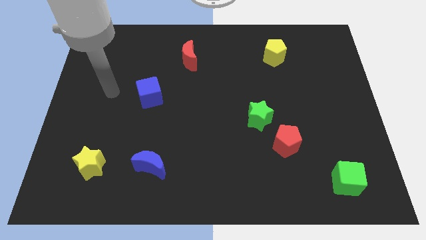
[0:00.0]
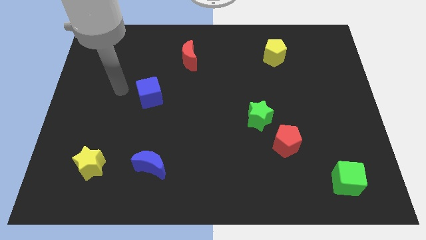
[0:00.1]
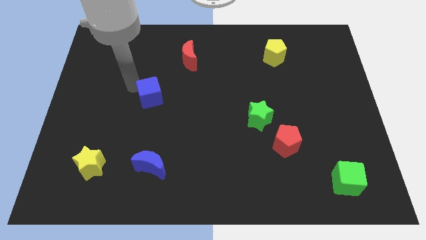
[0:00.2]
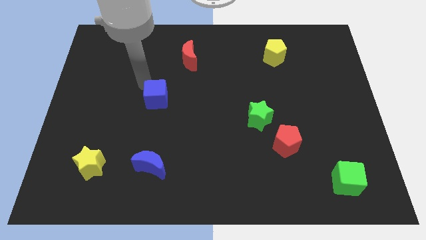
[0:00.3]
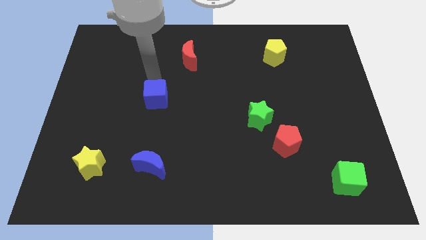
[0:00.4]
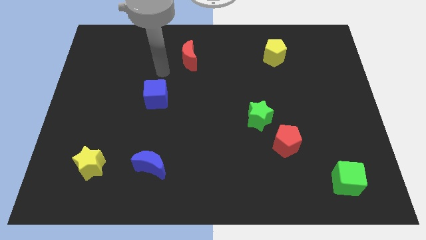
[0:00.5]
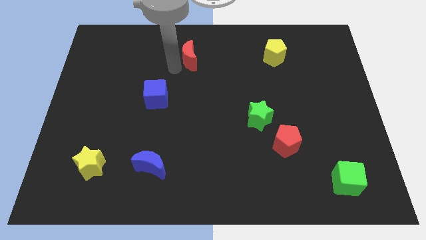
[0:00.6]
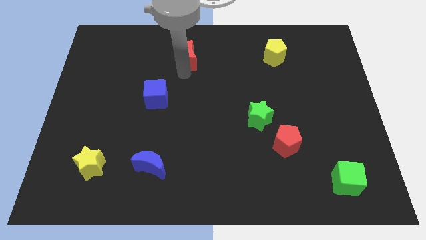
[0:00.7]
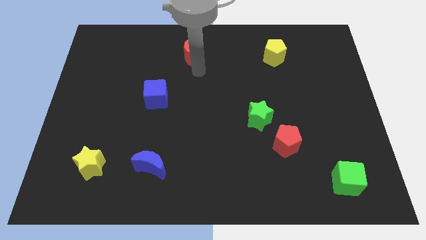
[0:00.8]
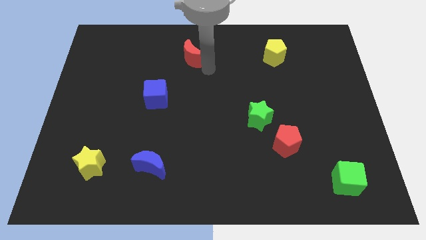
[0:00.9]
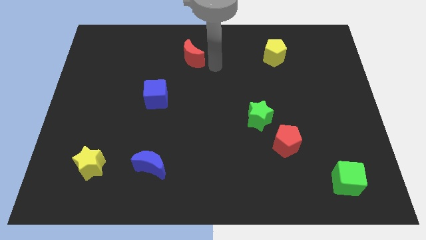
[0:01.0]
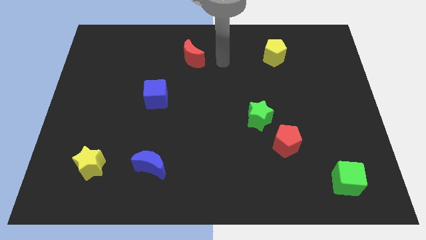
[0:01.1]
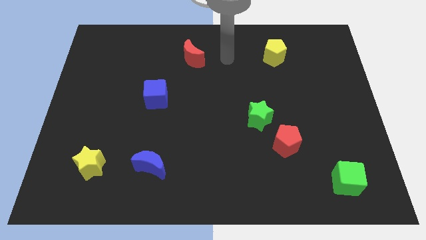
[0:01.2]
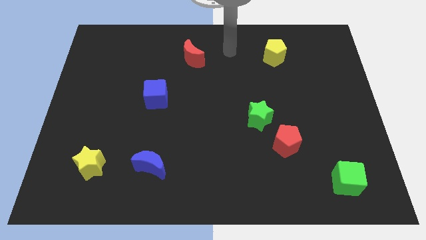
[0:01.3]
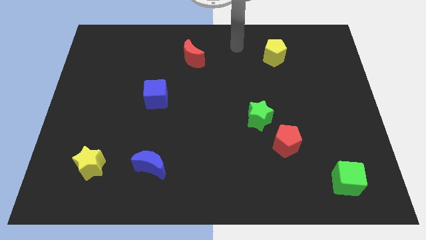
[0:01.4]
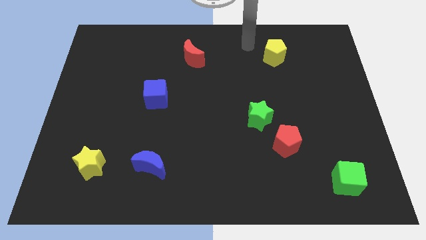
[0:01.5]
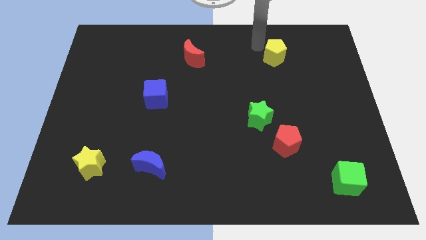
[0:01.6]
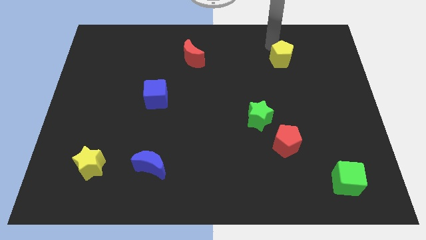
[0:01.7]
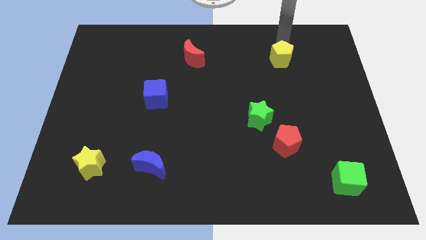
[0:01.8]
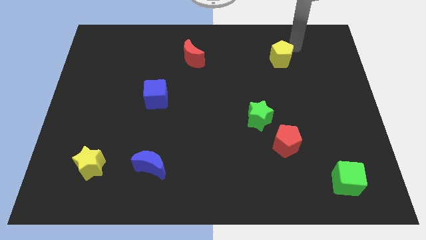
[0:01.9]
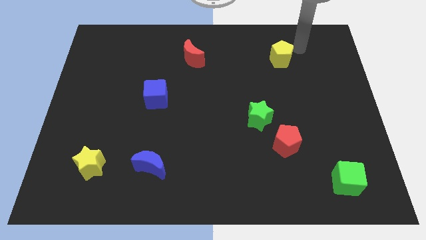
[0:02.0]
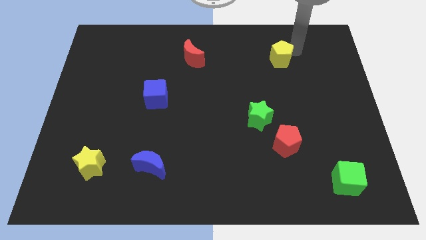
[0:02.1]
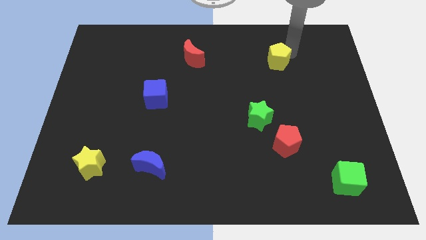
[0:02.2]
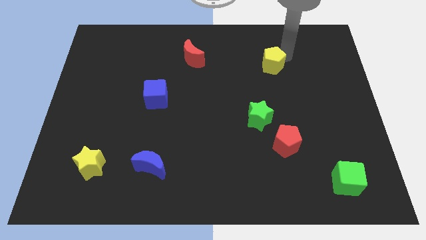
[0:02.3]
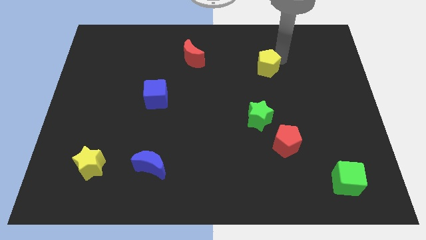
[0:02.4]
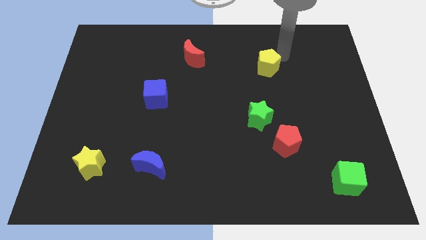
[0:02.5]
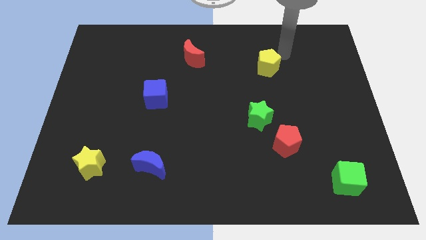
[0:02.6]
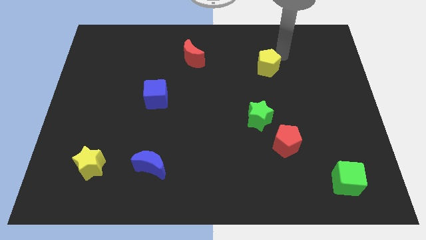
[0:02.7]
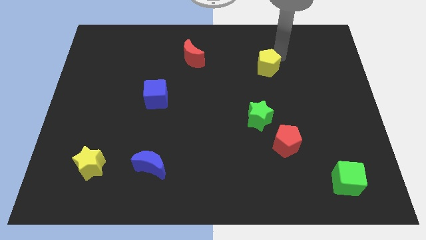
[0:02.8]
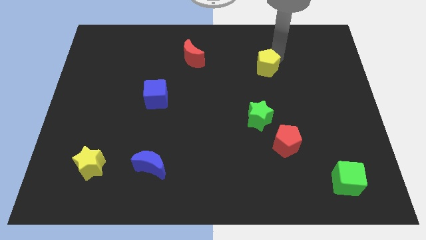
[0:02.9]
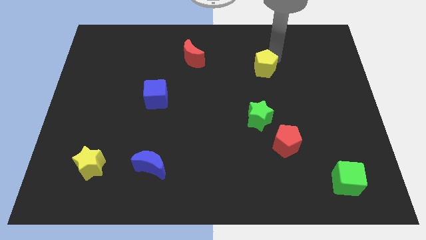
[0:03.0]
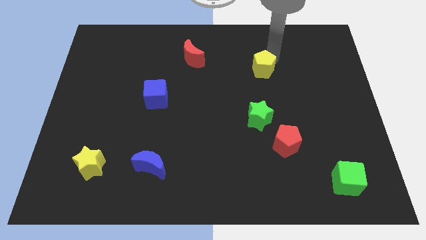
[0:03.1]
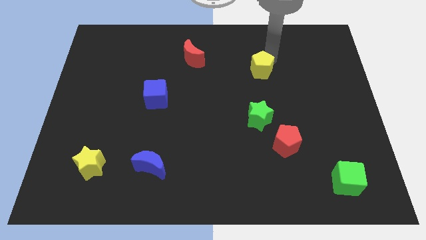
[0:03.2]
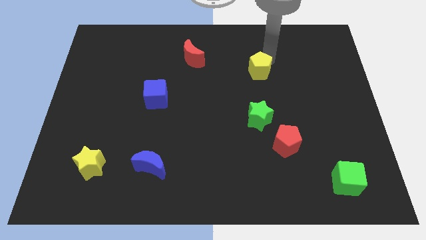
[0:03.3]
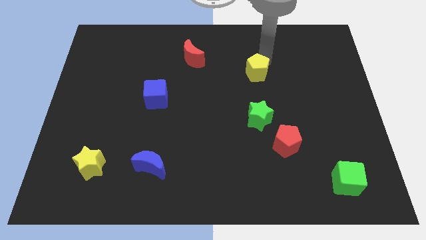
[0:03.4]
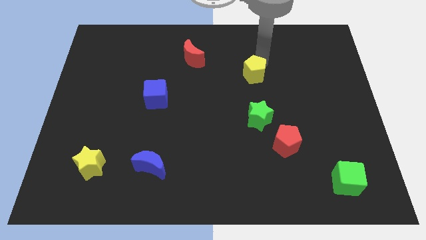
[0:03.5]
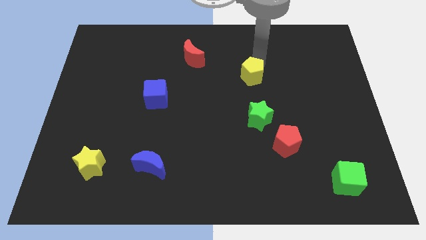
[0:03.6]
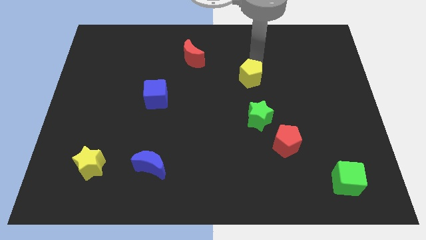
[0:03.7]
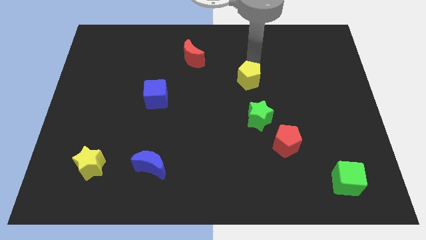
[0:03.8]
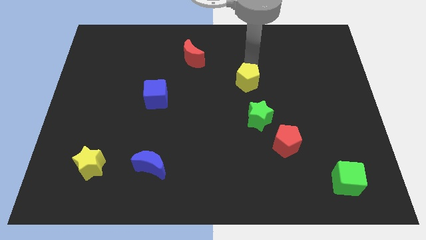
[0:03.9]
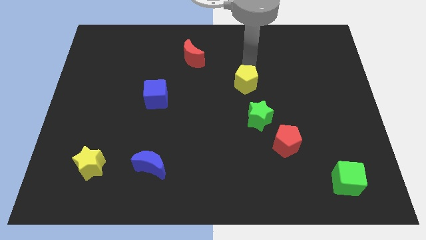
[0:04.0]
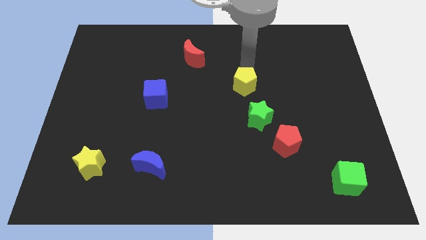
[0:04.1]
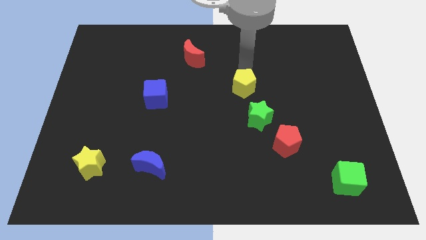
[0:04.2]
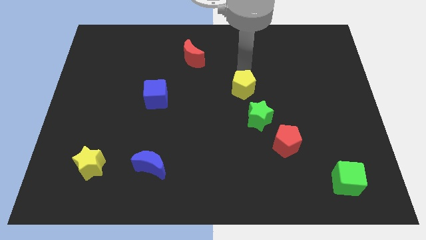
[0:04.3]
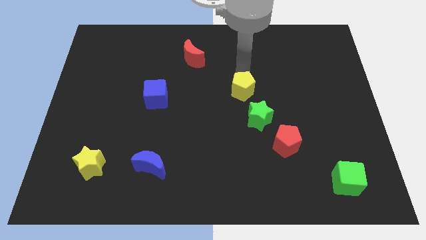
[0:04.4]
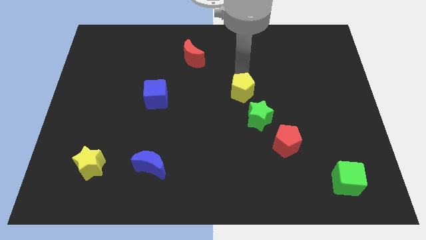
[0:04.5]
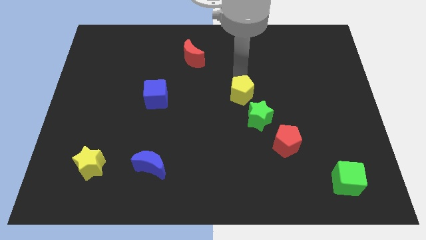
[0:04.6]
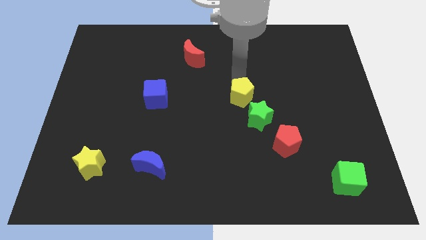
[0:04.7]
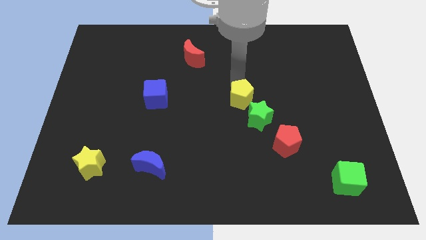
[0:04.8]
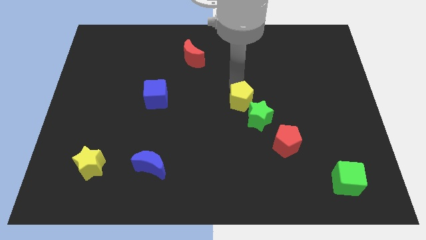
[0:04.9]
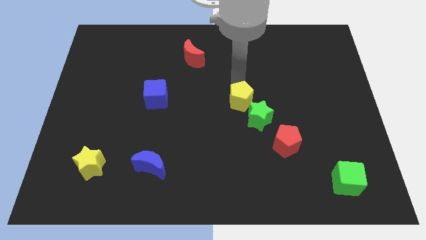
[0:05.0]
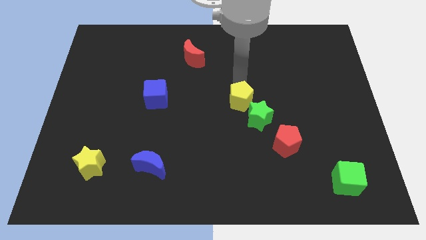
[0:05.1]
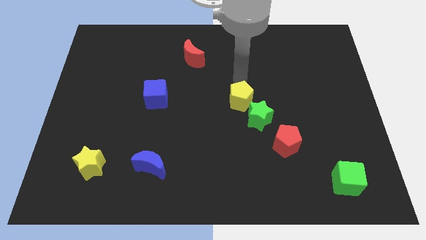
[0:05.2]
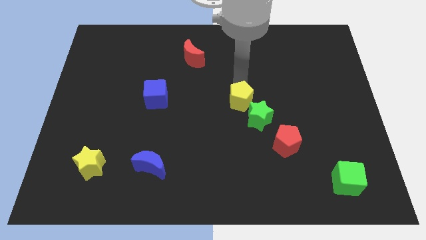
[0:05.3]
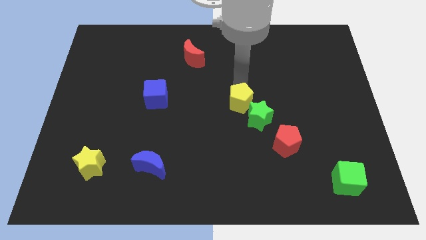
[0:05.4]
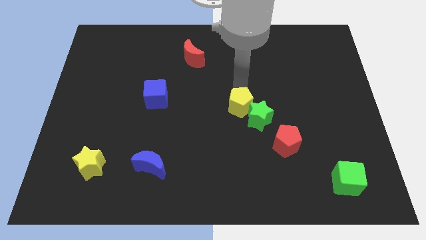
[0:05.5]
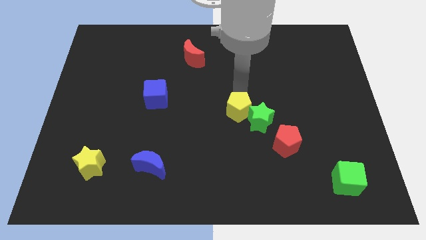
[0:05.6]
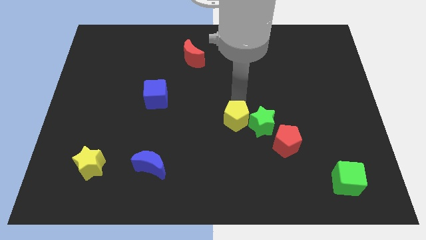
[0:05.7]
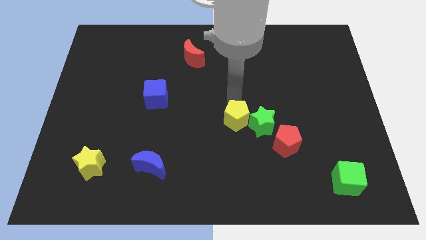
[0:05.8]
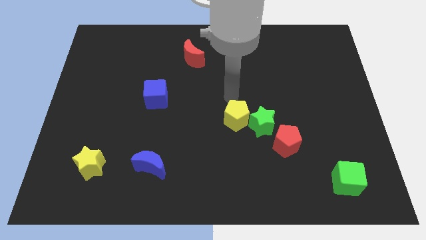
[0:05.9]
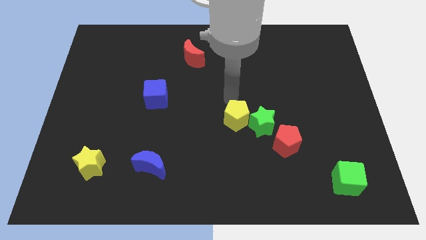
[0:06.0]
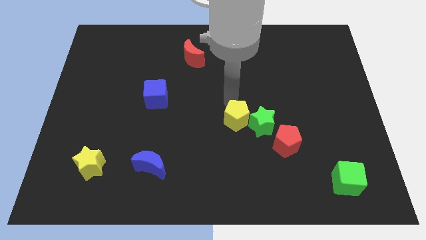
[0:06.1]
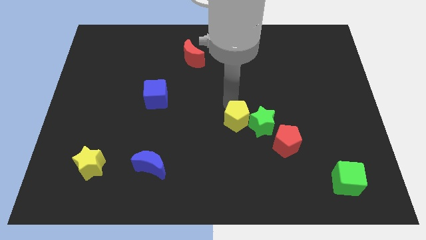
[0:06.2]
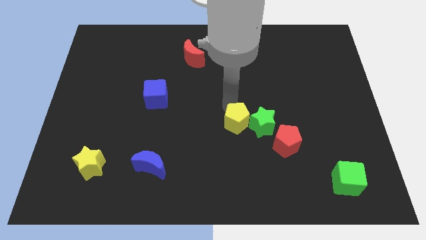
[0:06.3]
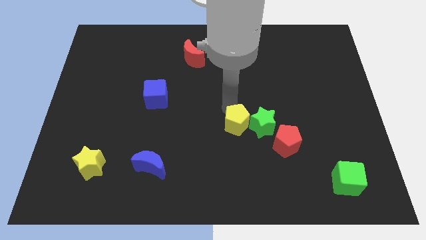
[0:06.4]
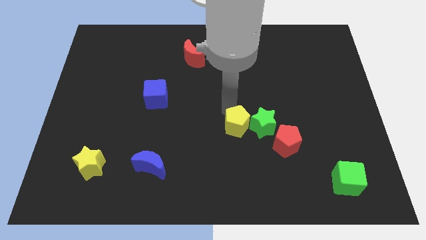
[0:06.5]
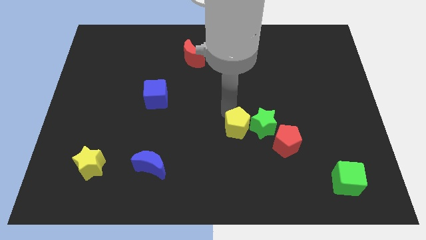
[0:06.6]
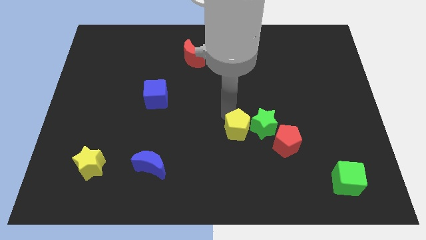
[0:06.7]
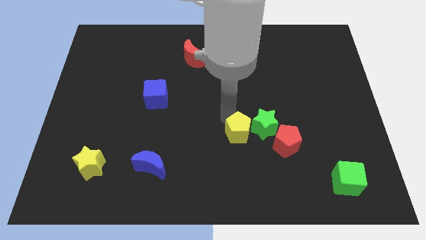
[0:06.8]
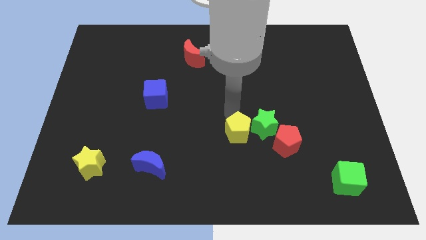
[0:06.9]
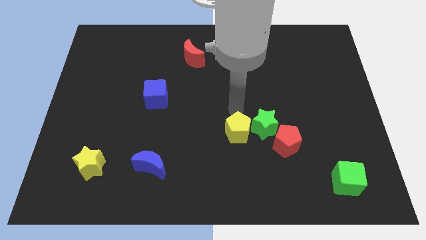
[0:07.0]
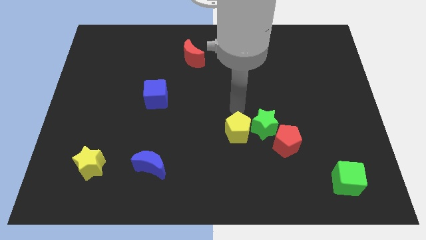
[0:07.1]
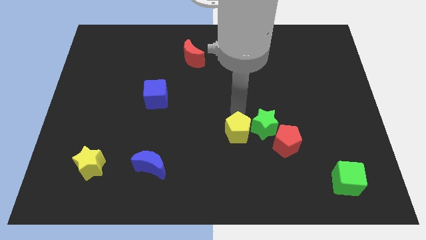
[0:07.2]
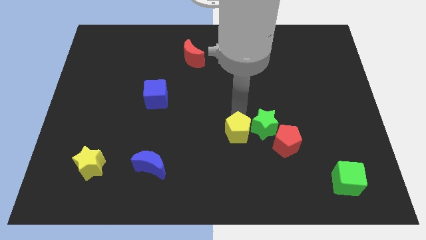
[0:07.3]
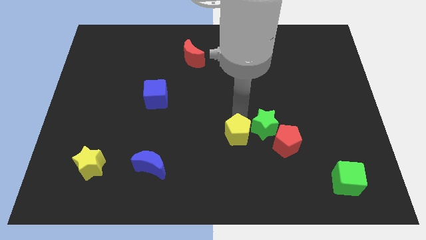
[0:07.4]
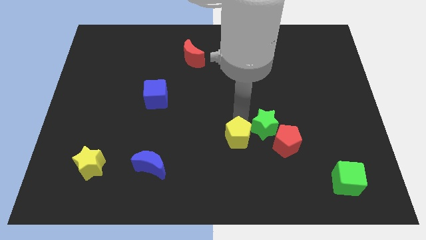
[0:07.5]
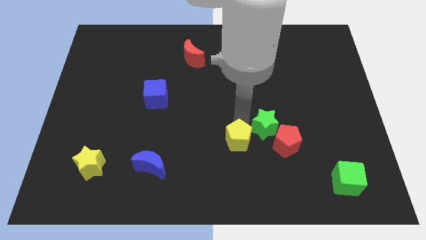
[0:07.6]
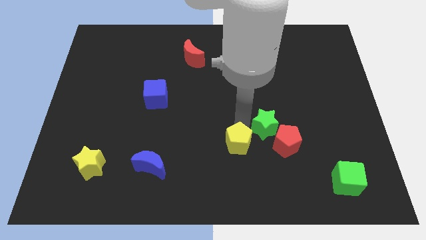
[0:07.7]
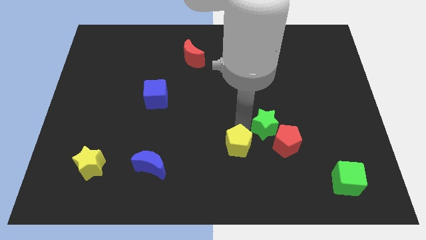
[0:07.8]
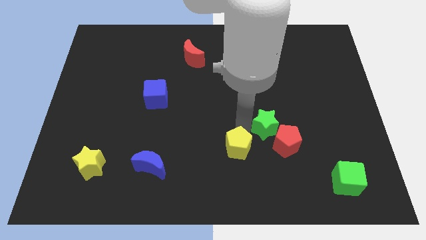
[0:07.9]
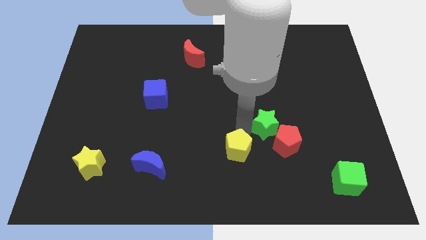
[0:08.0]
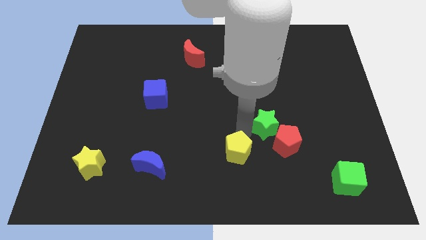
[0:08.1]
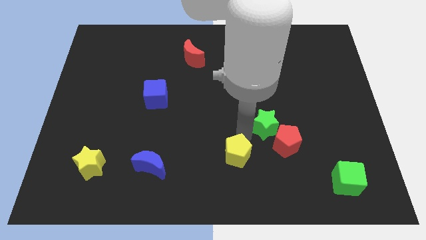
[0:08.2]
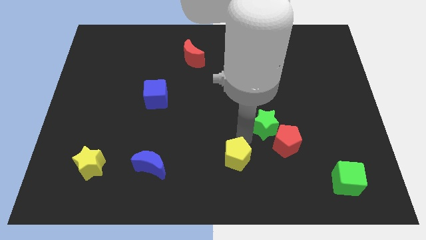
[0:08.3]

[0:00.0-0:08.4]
put the yellow pentagon to the bottom side
